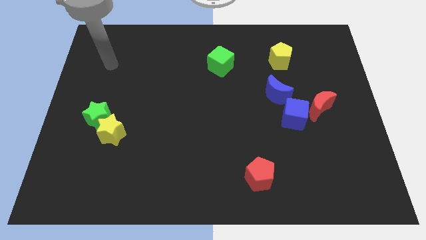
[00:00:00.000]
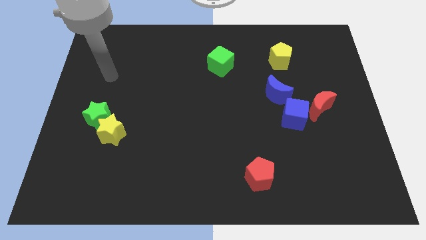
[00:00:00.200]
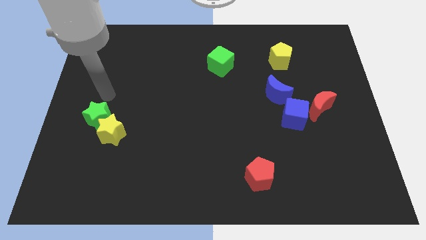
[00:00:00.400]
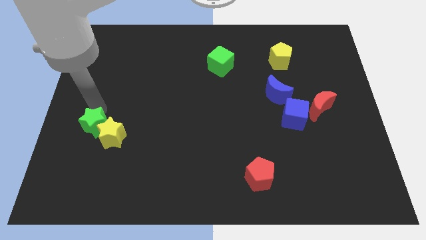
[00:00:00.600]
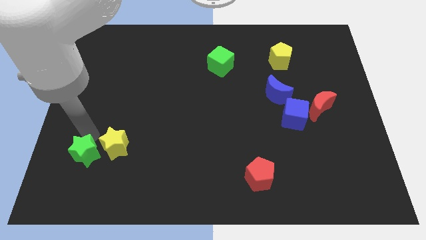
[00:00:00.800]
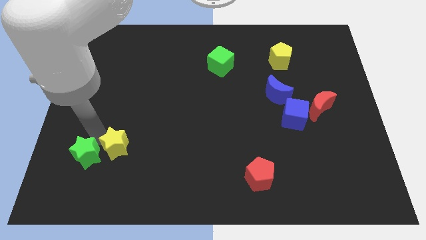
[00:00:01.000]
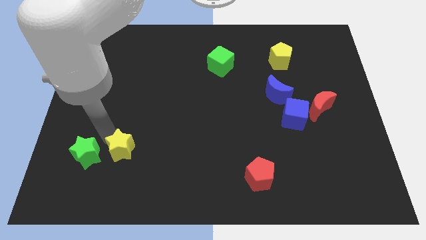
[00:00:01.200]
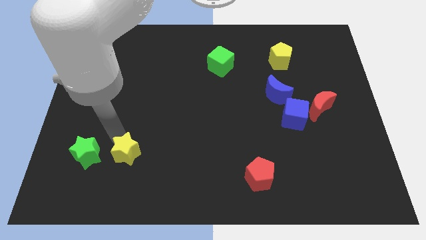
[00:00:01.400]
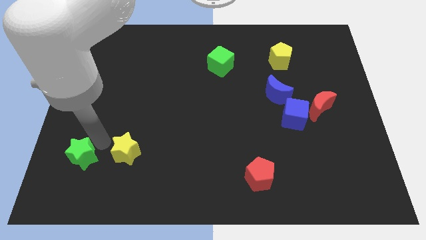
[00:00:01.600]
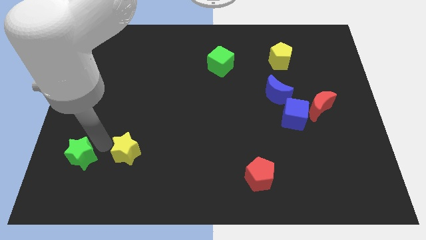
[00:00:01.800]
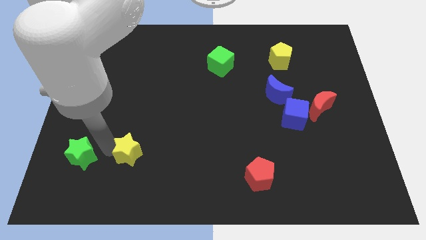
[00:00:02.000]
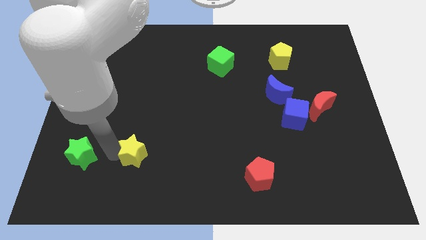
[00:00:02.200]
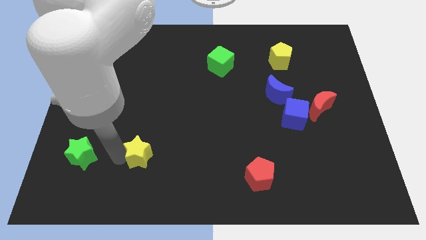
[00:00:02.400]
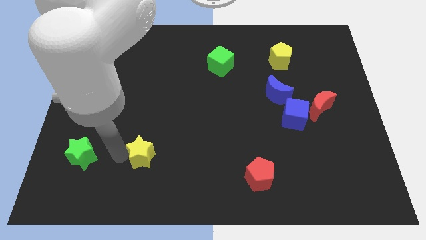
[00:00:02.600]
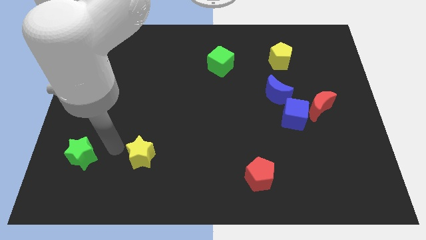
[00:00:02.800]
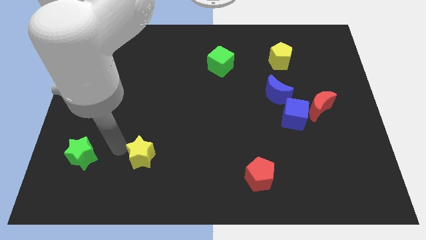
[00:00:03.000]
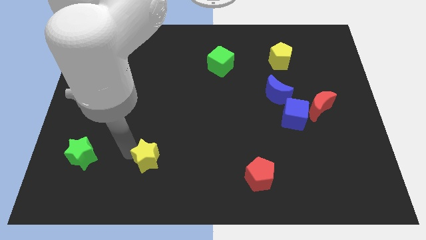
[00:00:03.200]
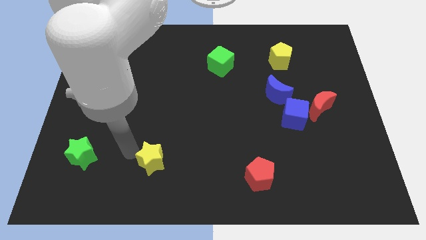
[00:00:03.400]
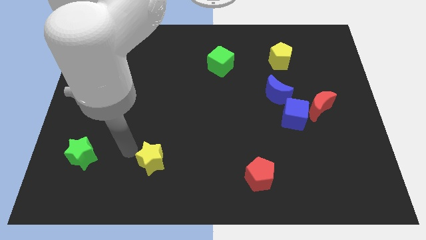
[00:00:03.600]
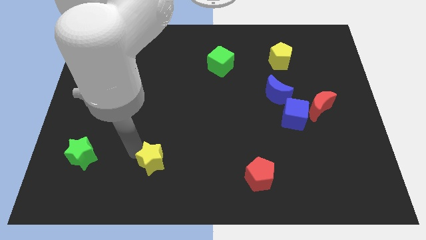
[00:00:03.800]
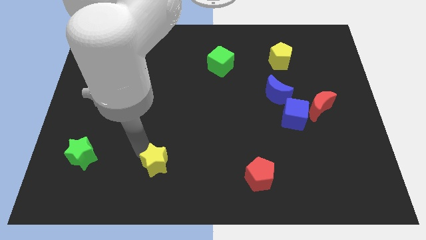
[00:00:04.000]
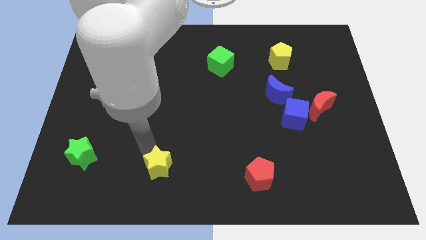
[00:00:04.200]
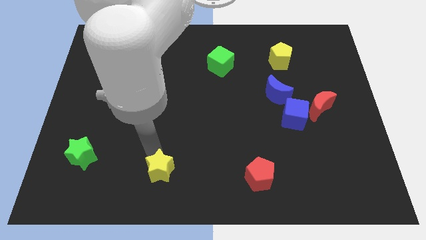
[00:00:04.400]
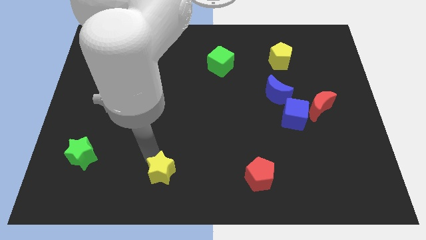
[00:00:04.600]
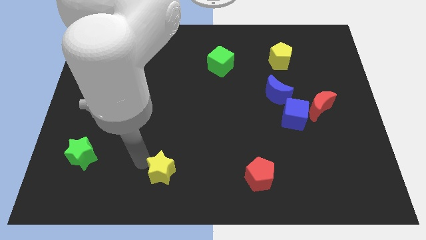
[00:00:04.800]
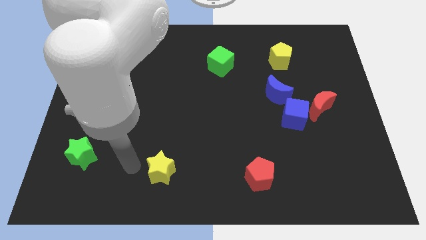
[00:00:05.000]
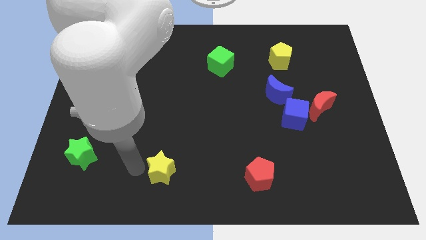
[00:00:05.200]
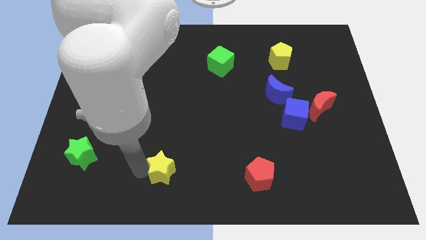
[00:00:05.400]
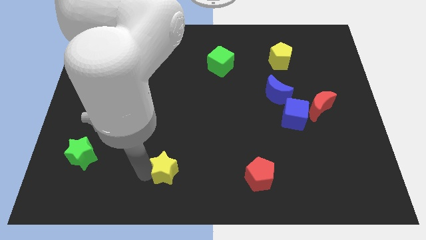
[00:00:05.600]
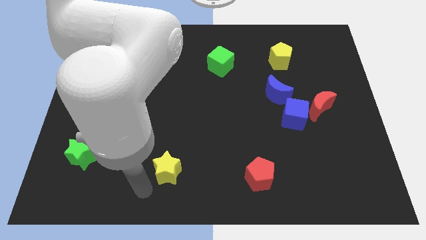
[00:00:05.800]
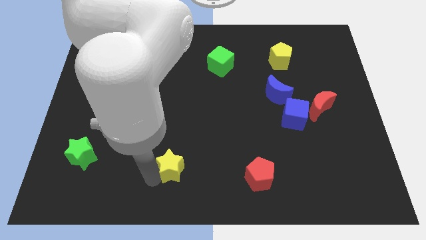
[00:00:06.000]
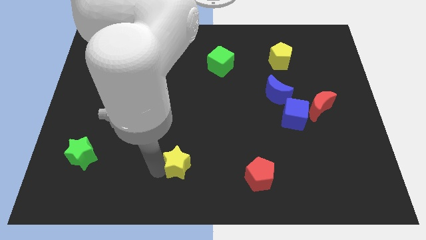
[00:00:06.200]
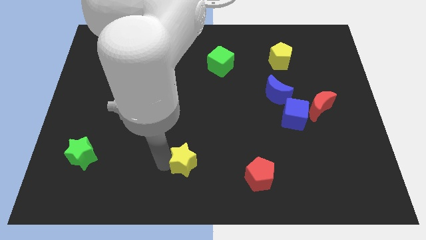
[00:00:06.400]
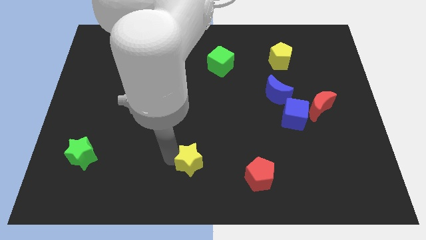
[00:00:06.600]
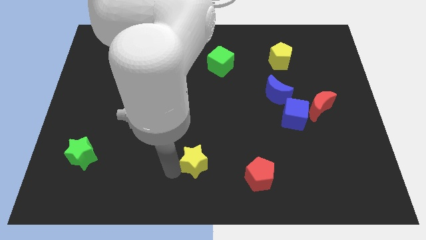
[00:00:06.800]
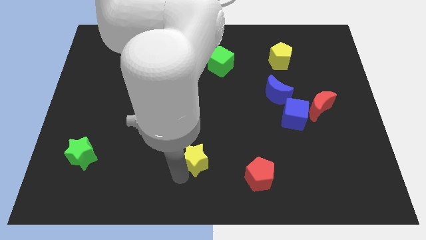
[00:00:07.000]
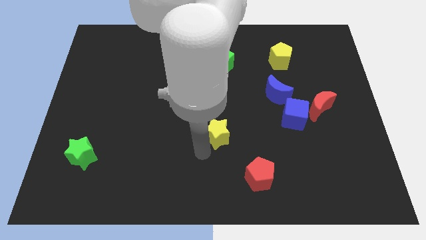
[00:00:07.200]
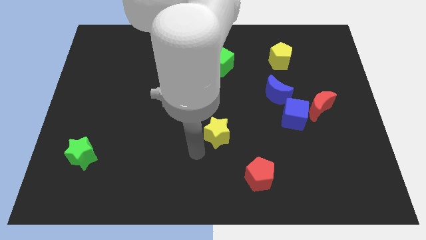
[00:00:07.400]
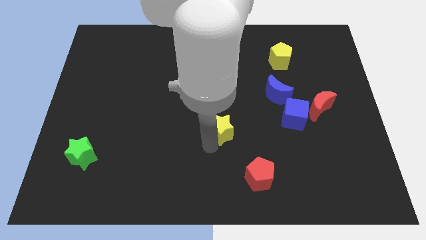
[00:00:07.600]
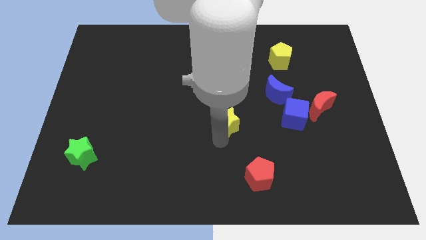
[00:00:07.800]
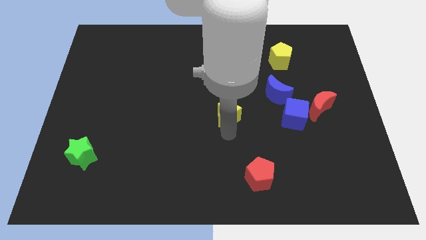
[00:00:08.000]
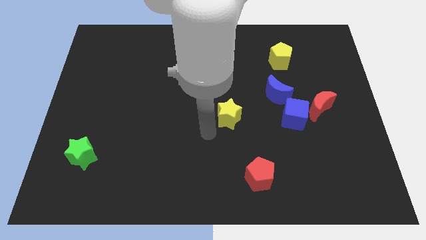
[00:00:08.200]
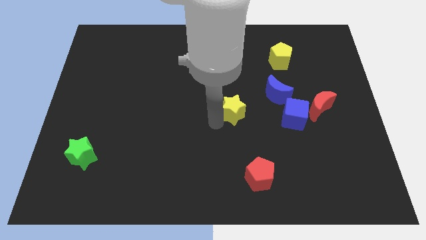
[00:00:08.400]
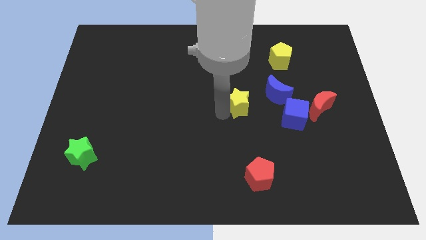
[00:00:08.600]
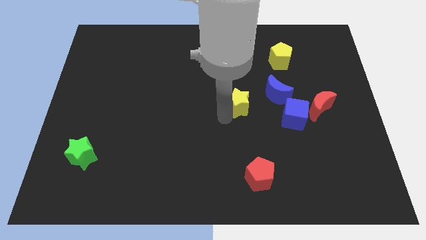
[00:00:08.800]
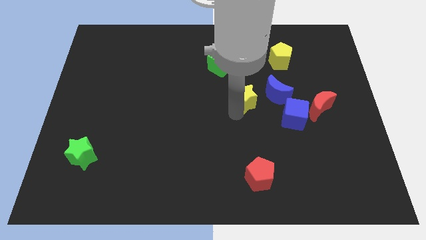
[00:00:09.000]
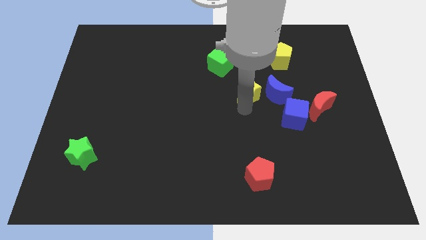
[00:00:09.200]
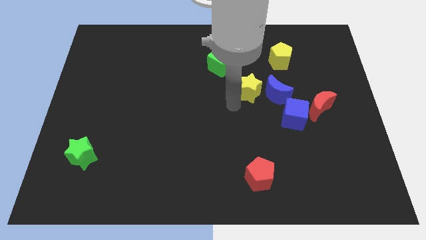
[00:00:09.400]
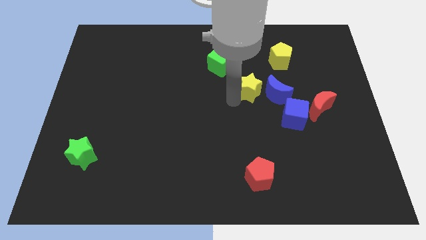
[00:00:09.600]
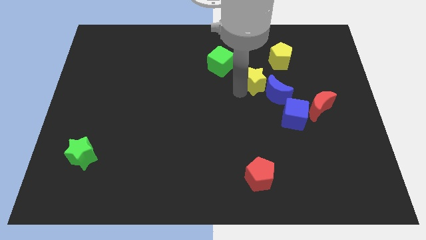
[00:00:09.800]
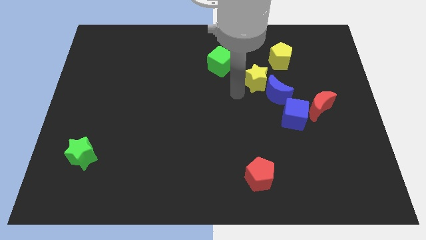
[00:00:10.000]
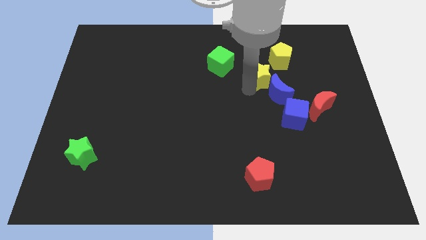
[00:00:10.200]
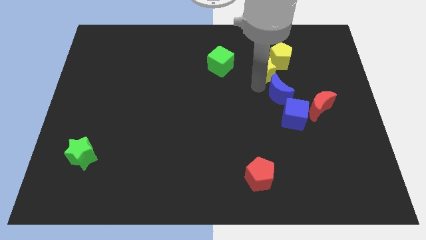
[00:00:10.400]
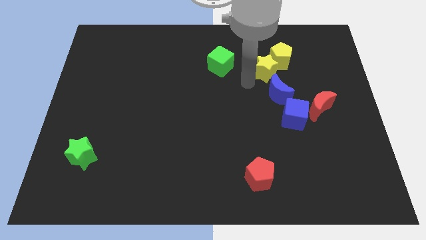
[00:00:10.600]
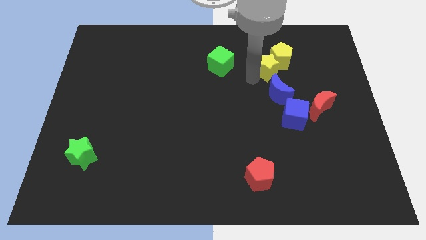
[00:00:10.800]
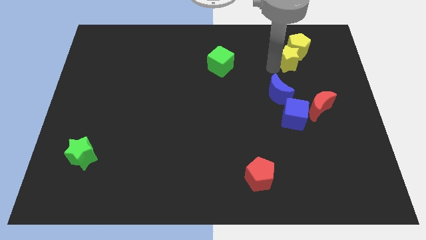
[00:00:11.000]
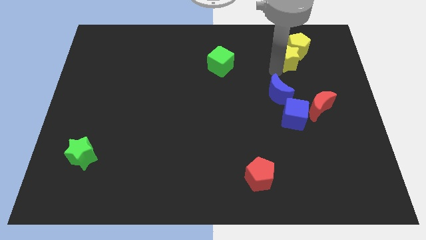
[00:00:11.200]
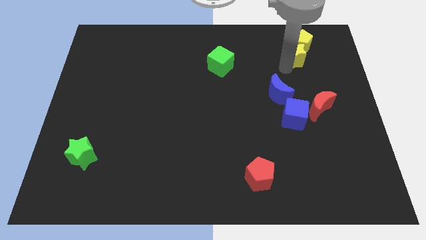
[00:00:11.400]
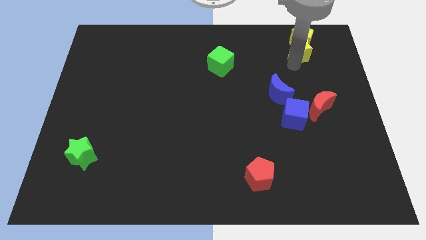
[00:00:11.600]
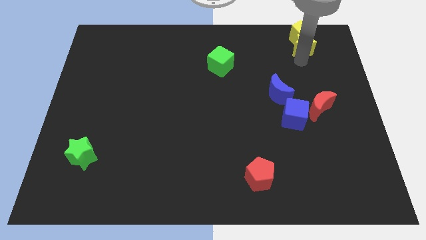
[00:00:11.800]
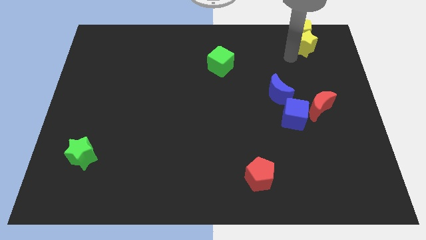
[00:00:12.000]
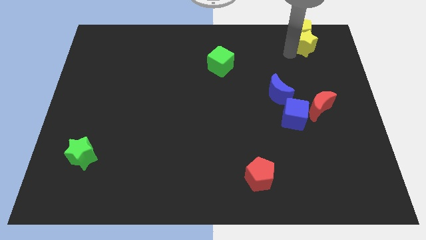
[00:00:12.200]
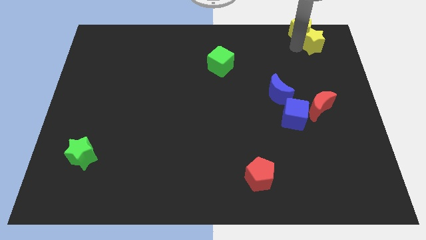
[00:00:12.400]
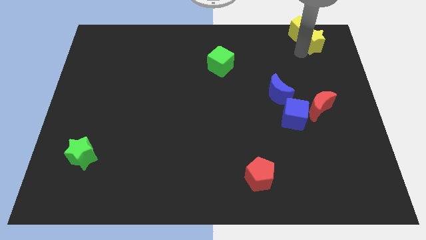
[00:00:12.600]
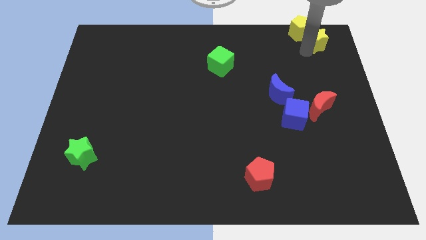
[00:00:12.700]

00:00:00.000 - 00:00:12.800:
push the yellow star to the upper right corner

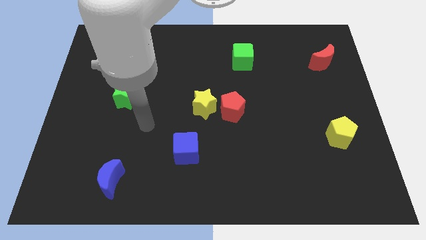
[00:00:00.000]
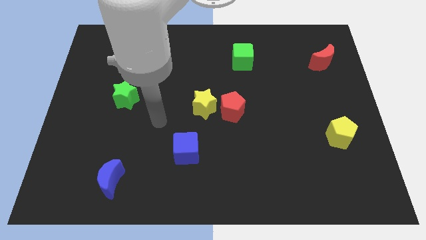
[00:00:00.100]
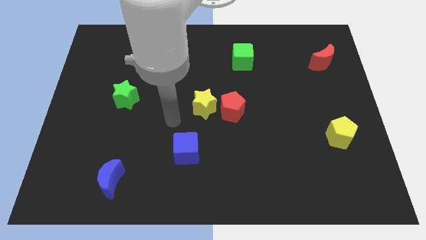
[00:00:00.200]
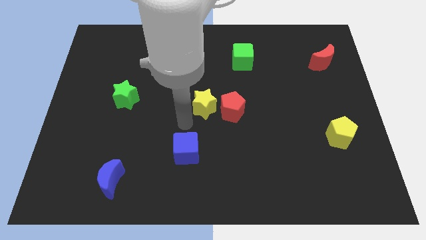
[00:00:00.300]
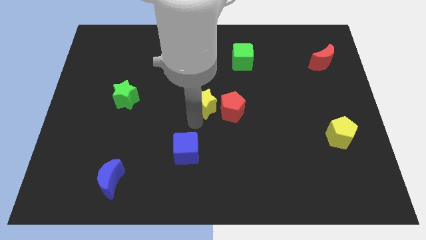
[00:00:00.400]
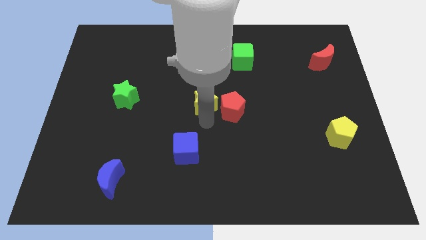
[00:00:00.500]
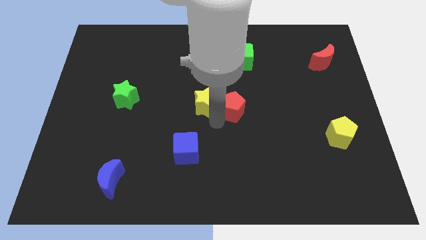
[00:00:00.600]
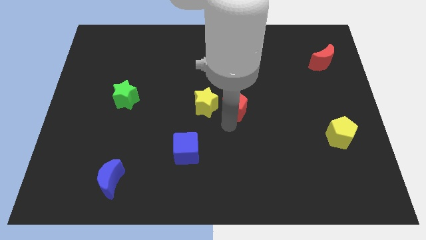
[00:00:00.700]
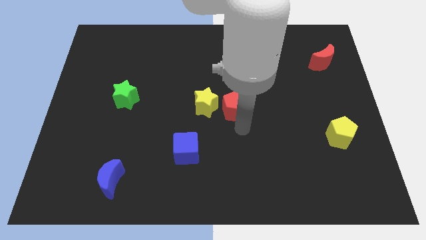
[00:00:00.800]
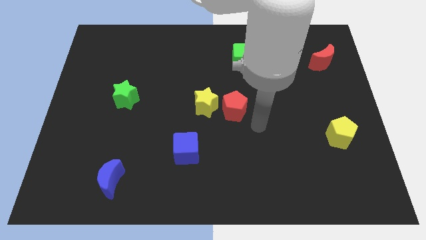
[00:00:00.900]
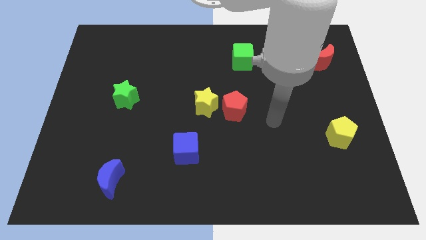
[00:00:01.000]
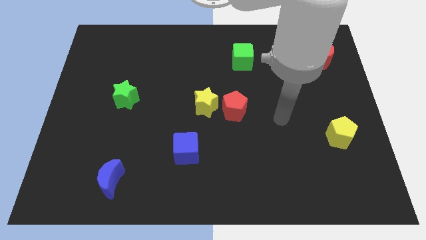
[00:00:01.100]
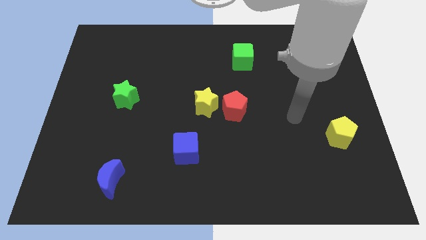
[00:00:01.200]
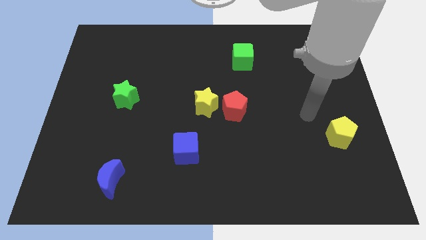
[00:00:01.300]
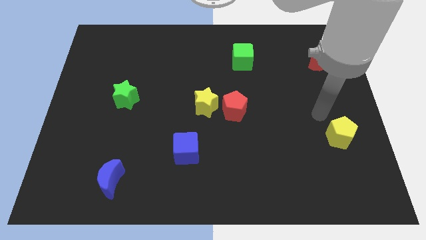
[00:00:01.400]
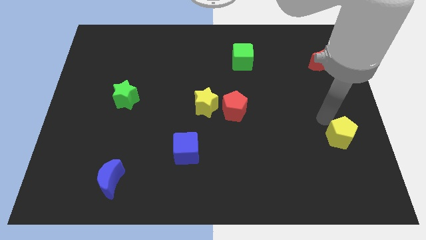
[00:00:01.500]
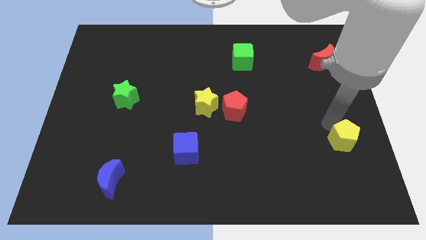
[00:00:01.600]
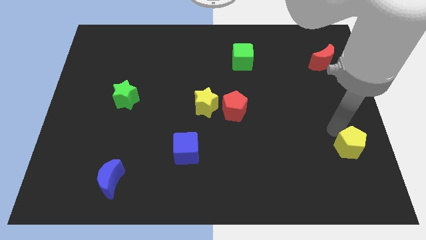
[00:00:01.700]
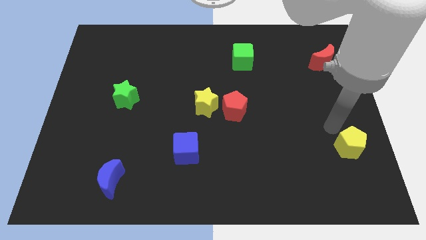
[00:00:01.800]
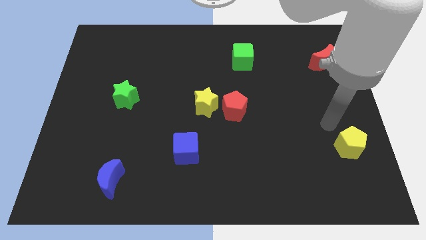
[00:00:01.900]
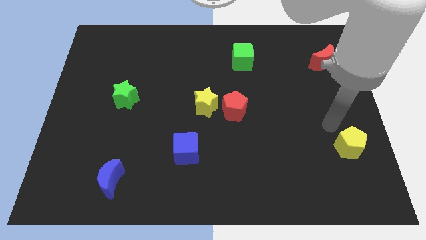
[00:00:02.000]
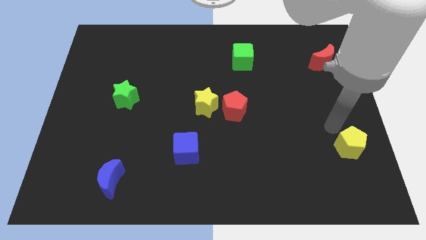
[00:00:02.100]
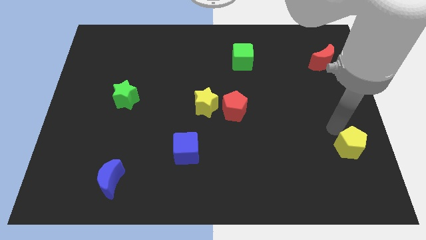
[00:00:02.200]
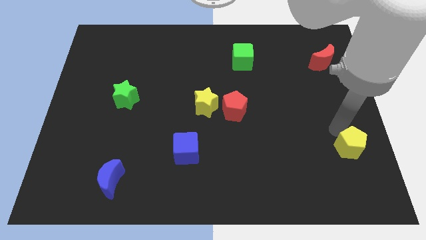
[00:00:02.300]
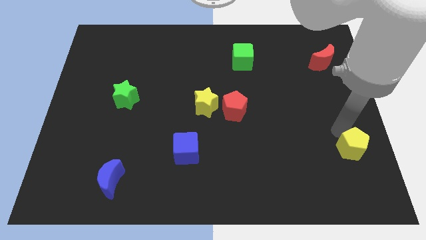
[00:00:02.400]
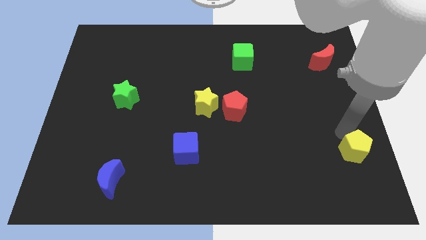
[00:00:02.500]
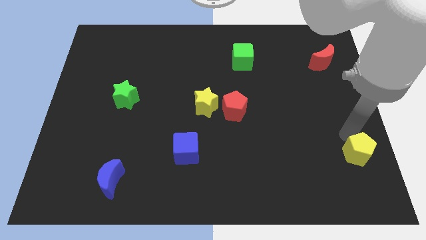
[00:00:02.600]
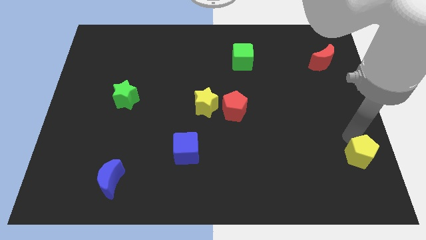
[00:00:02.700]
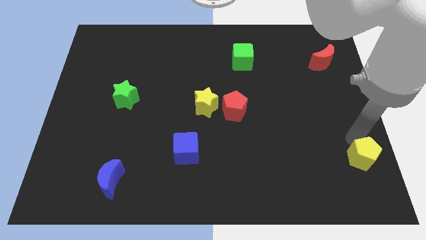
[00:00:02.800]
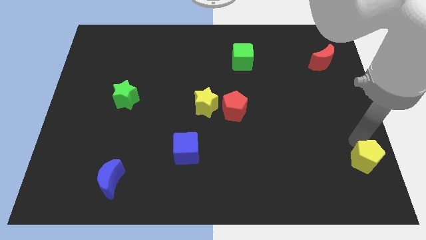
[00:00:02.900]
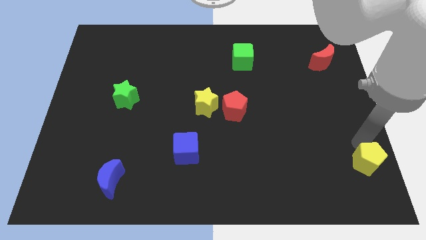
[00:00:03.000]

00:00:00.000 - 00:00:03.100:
slide the yellow pentagon to the bottom right corner
